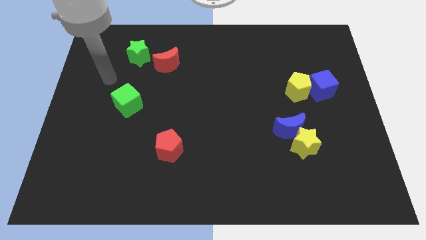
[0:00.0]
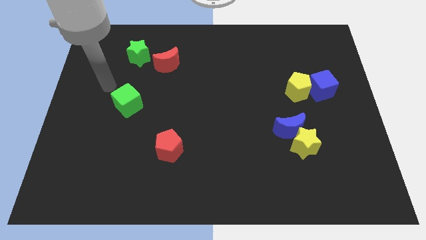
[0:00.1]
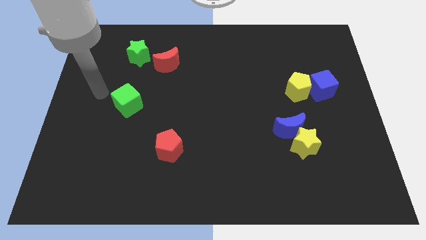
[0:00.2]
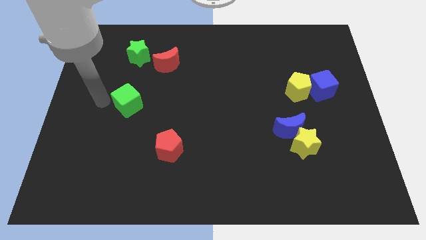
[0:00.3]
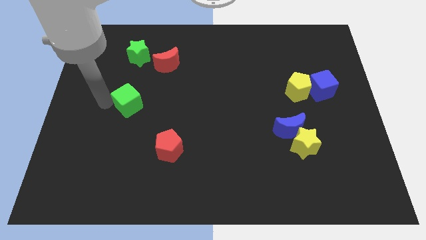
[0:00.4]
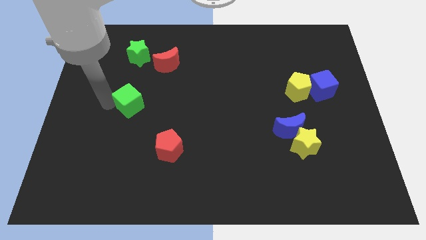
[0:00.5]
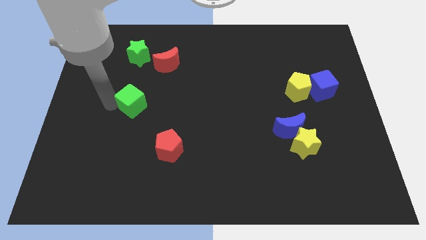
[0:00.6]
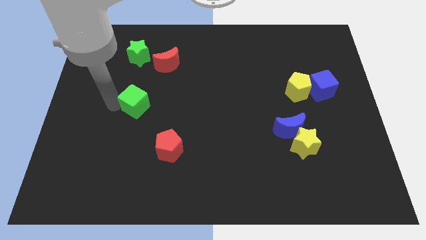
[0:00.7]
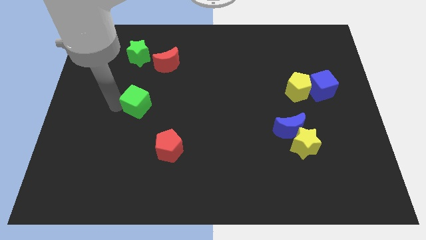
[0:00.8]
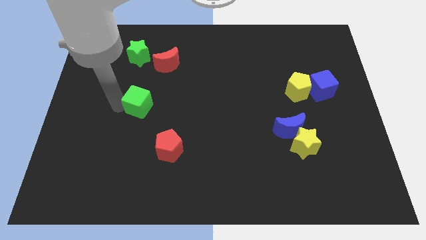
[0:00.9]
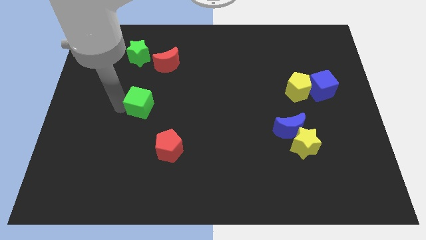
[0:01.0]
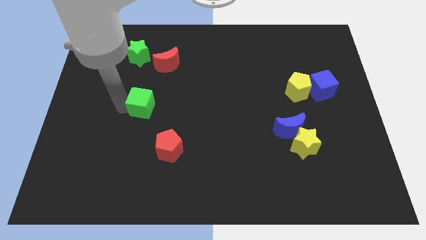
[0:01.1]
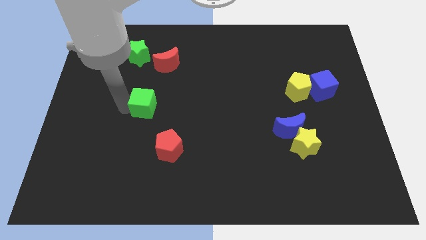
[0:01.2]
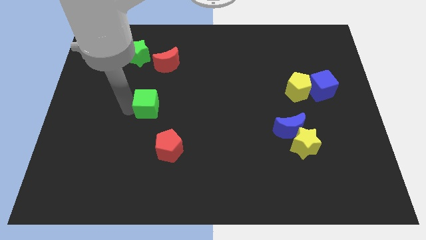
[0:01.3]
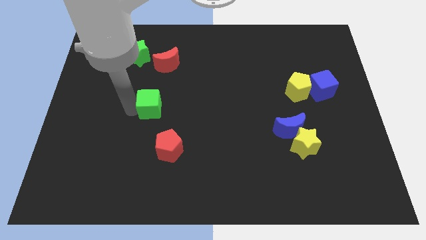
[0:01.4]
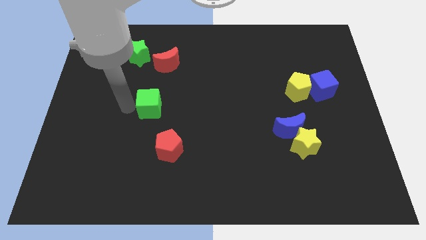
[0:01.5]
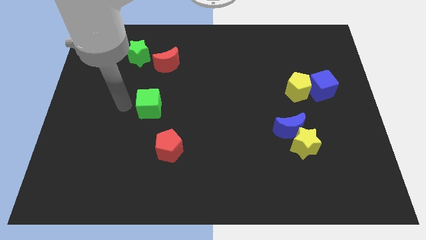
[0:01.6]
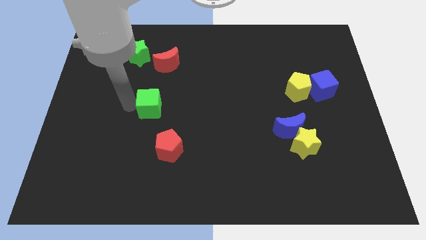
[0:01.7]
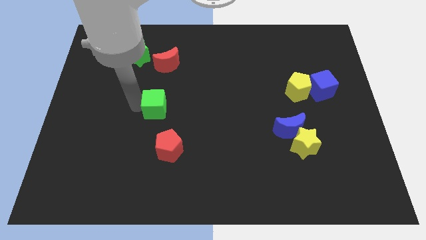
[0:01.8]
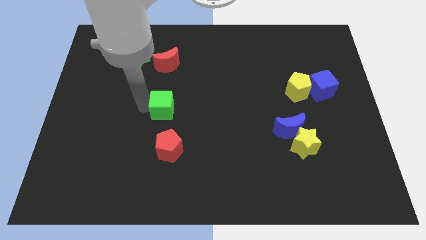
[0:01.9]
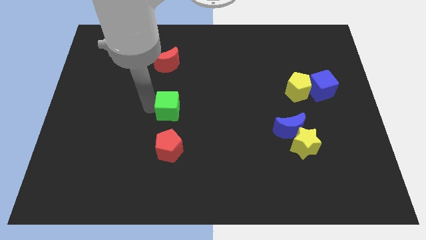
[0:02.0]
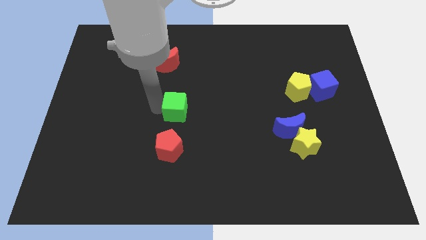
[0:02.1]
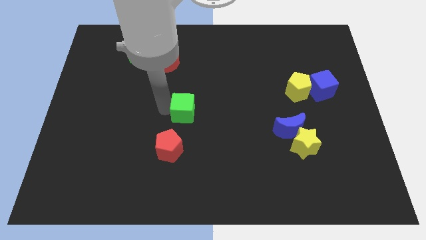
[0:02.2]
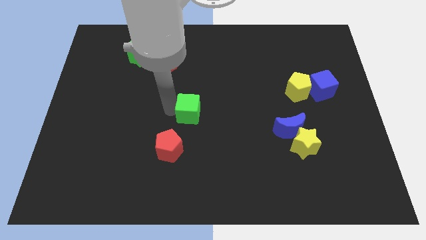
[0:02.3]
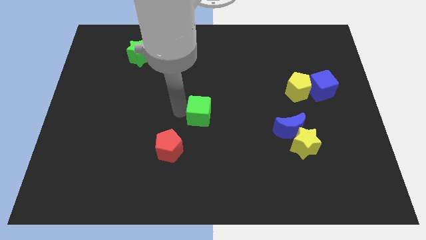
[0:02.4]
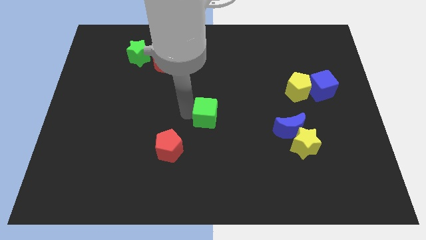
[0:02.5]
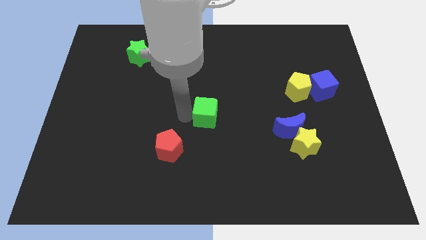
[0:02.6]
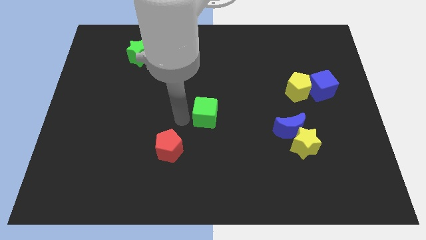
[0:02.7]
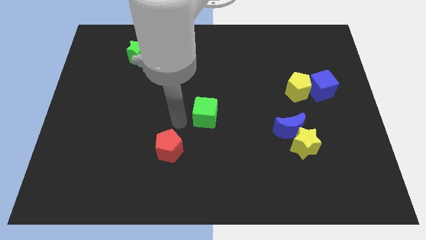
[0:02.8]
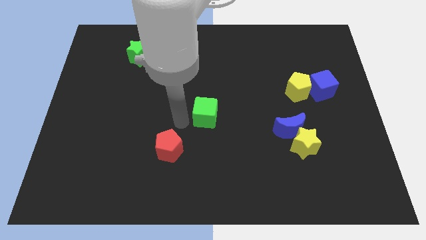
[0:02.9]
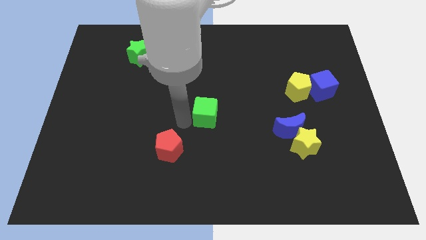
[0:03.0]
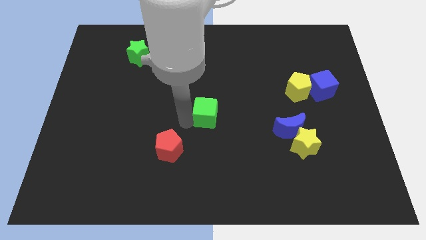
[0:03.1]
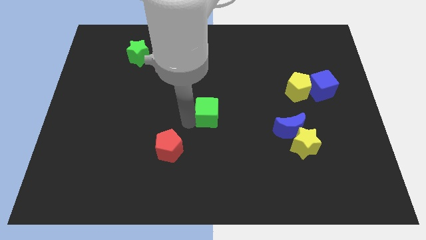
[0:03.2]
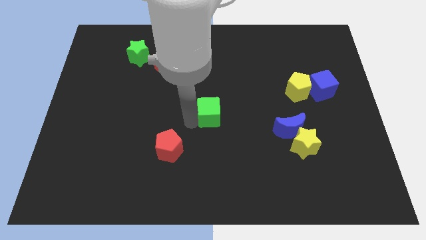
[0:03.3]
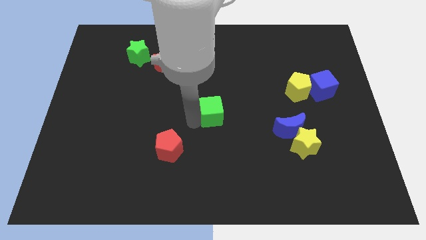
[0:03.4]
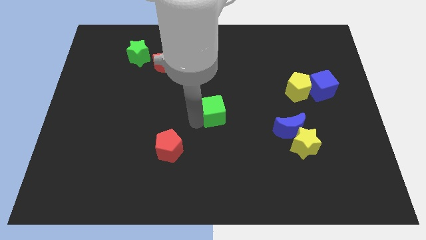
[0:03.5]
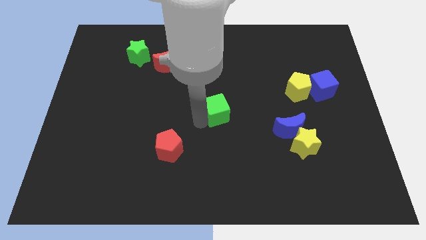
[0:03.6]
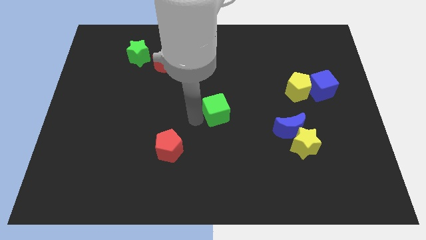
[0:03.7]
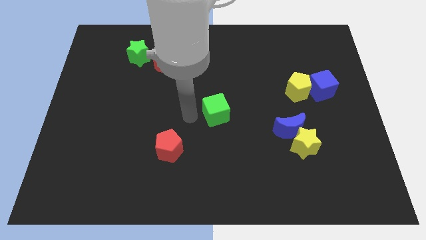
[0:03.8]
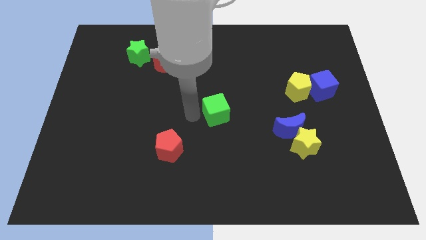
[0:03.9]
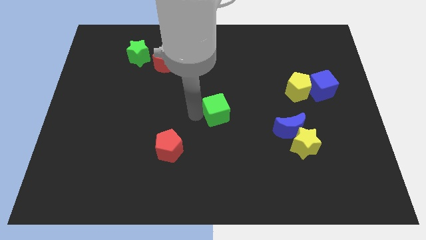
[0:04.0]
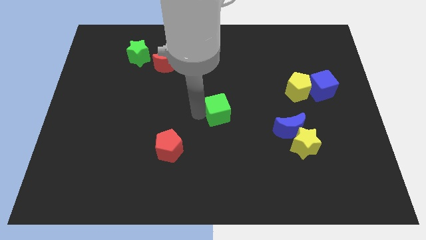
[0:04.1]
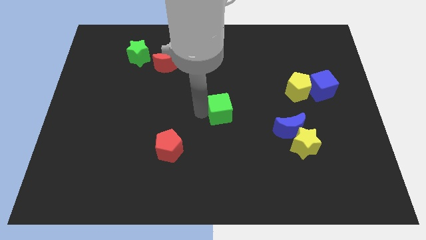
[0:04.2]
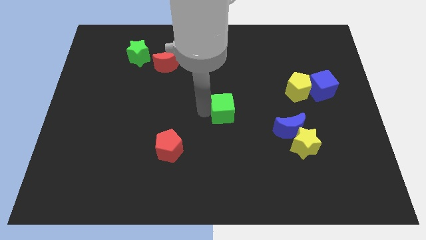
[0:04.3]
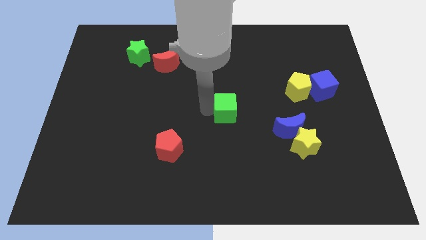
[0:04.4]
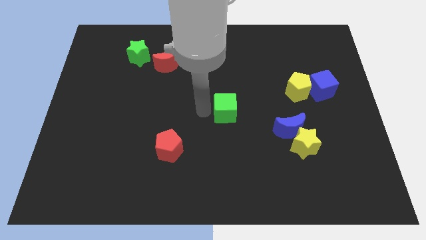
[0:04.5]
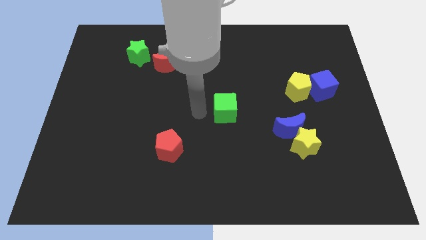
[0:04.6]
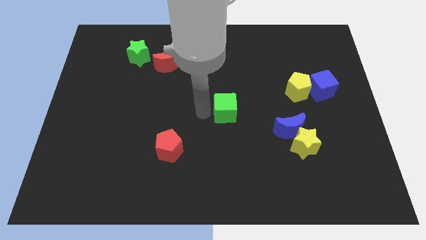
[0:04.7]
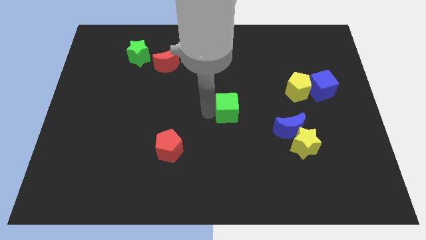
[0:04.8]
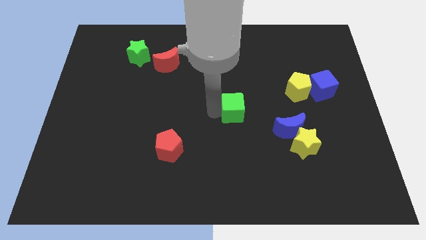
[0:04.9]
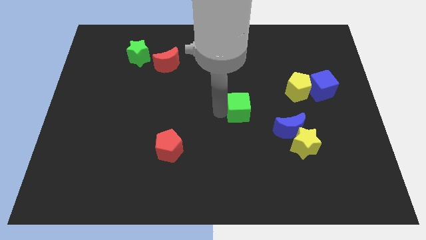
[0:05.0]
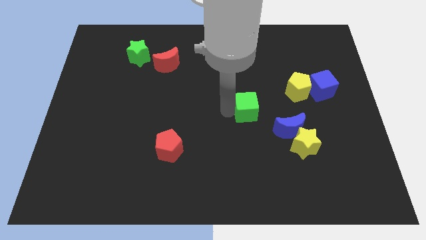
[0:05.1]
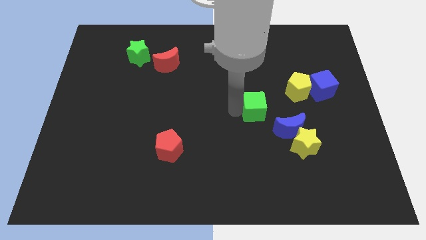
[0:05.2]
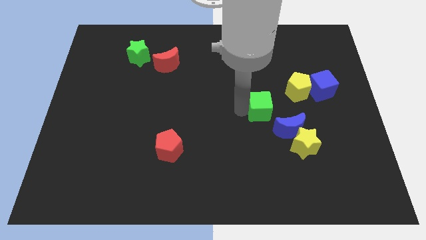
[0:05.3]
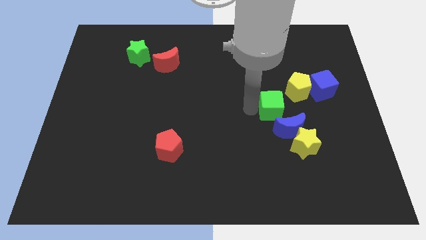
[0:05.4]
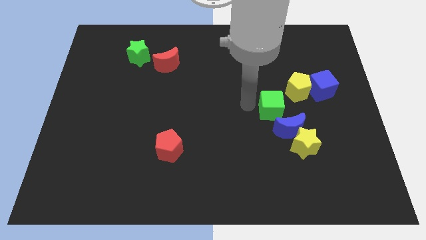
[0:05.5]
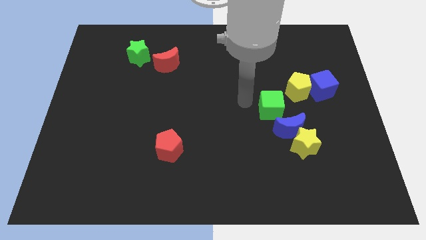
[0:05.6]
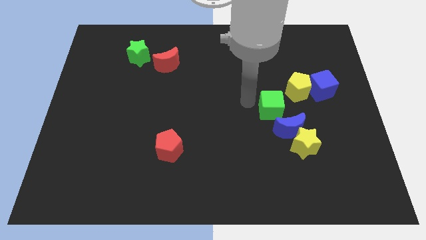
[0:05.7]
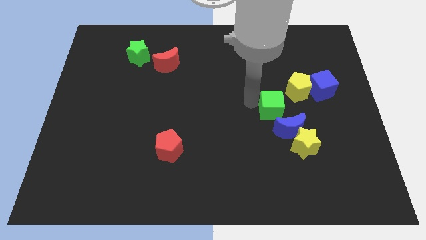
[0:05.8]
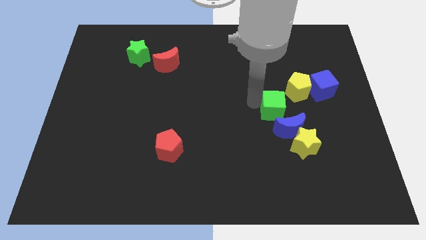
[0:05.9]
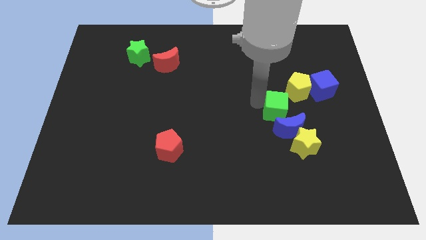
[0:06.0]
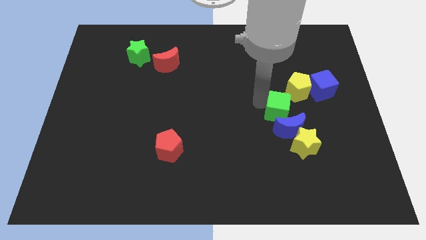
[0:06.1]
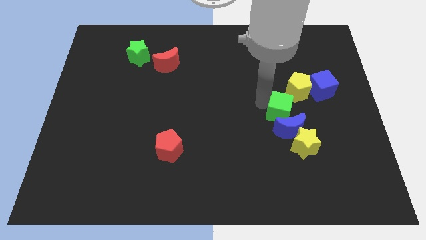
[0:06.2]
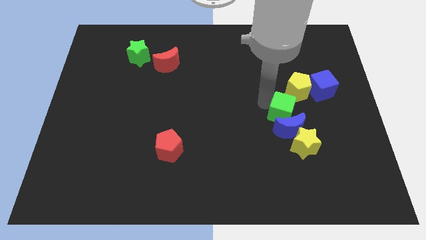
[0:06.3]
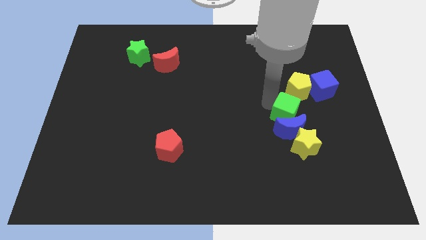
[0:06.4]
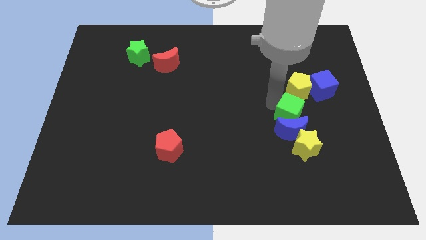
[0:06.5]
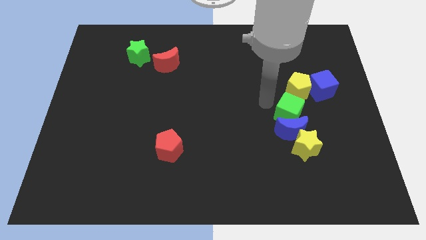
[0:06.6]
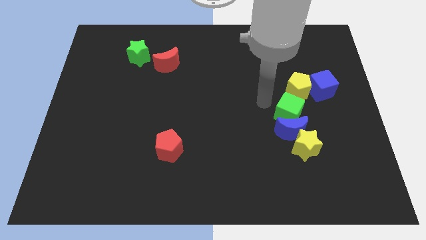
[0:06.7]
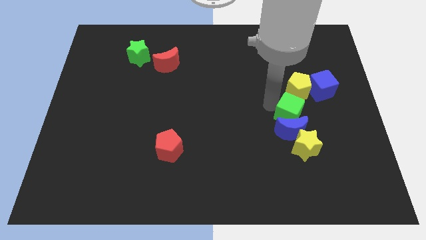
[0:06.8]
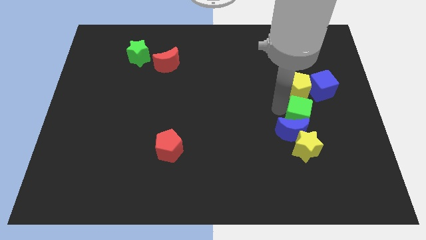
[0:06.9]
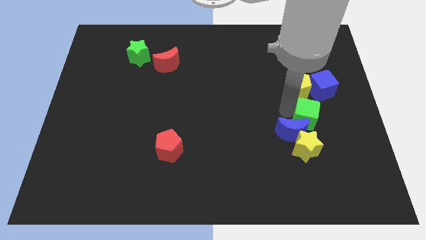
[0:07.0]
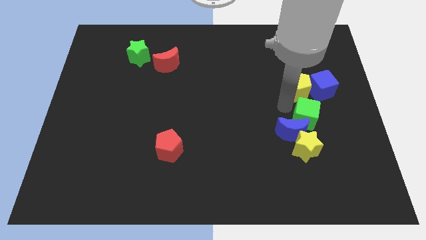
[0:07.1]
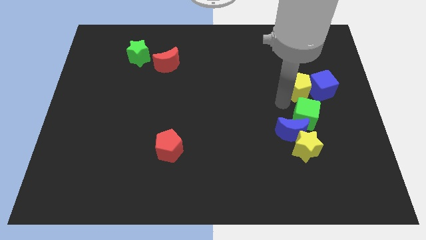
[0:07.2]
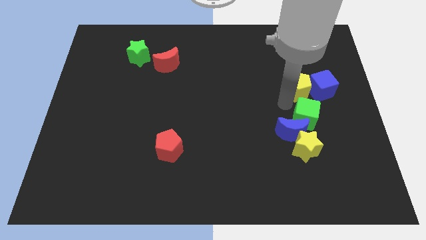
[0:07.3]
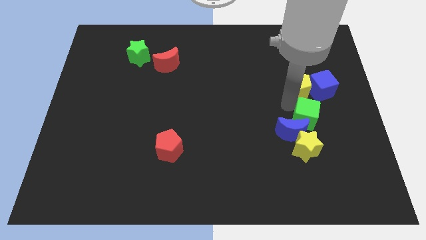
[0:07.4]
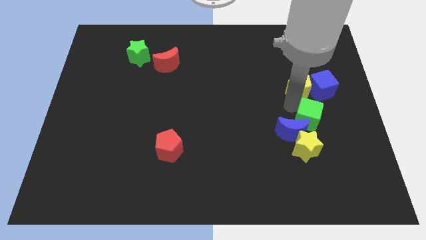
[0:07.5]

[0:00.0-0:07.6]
push the green cube to the top right of the yellow star
